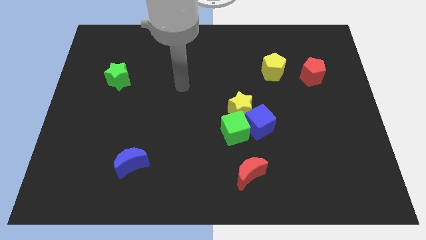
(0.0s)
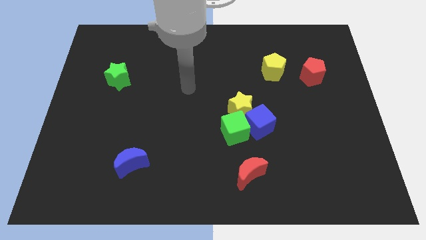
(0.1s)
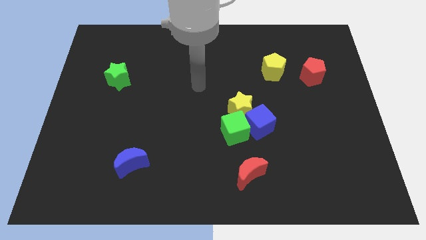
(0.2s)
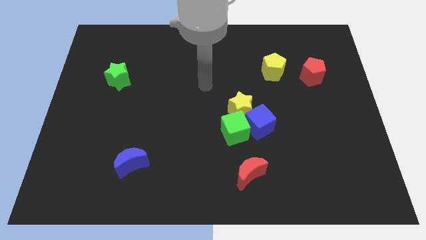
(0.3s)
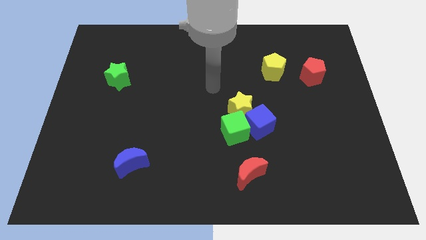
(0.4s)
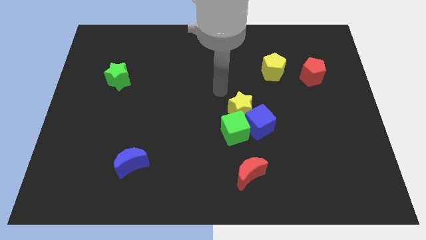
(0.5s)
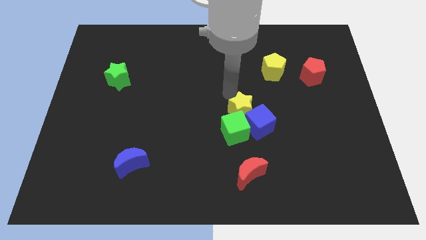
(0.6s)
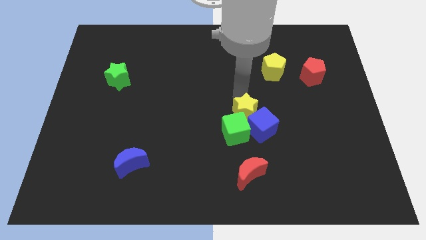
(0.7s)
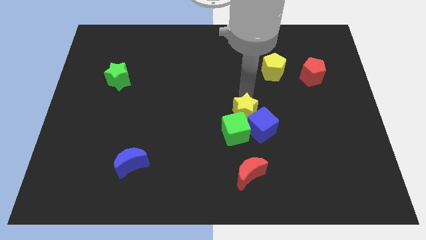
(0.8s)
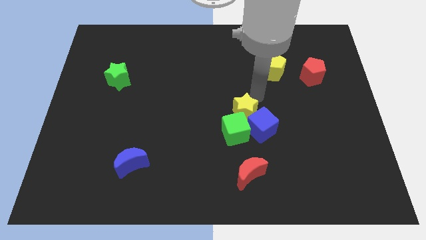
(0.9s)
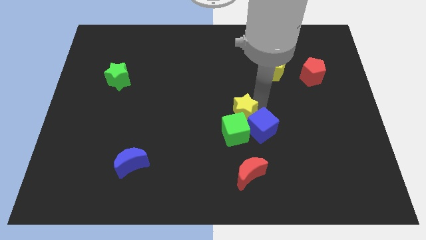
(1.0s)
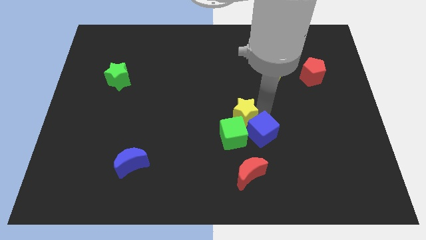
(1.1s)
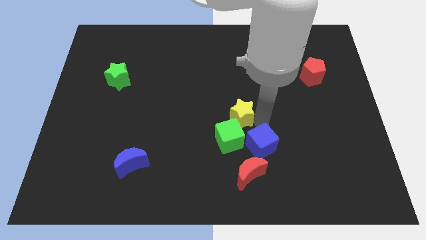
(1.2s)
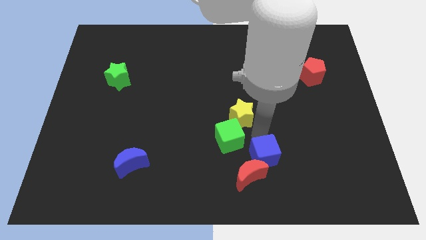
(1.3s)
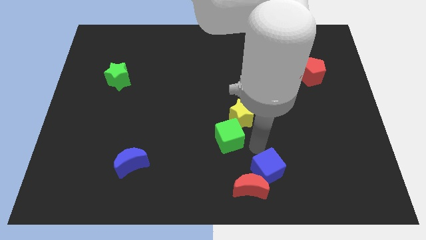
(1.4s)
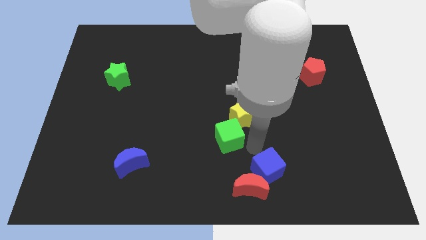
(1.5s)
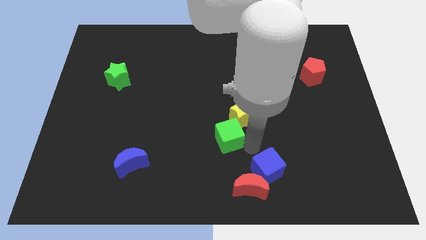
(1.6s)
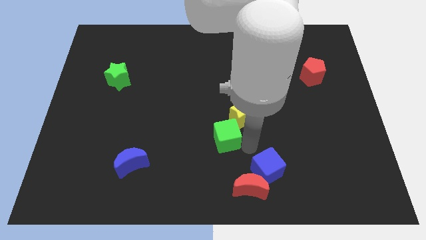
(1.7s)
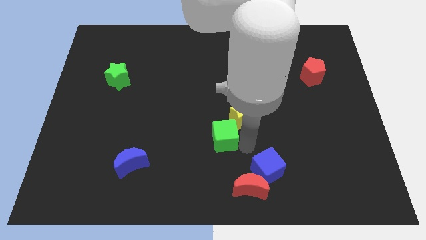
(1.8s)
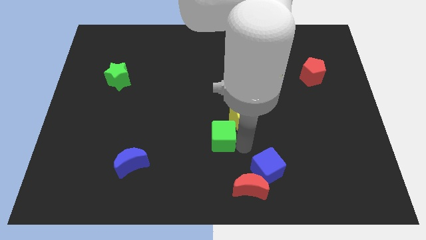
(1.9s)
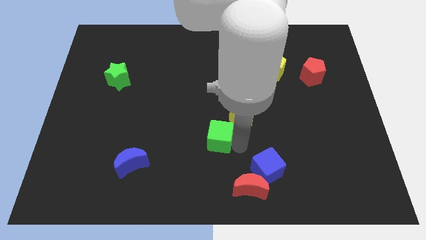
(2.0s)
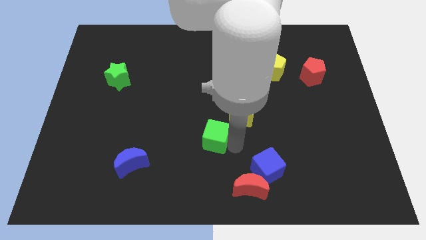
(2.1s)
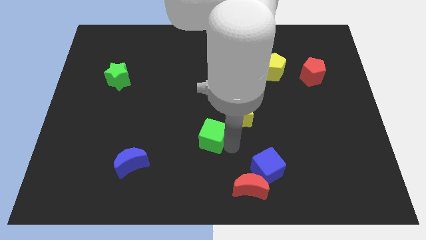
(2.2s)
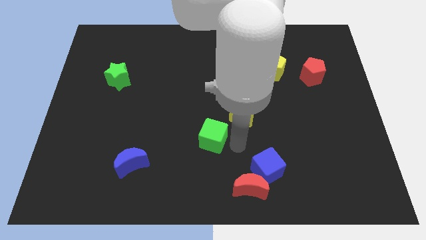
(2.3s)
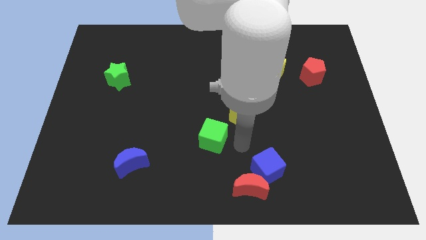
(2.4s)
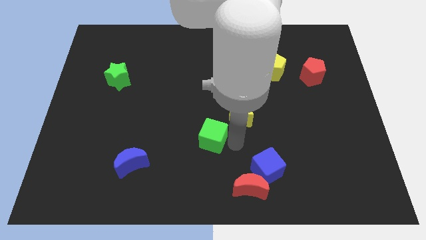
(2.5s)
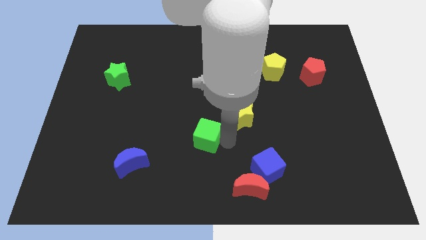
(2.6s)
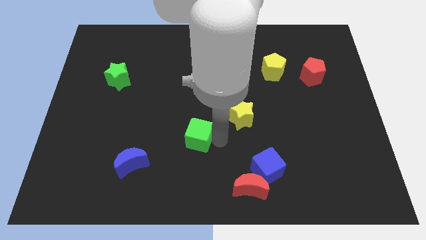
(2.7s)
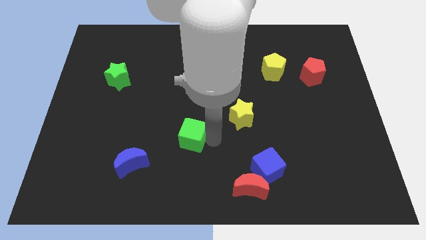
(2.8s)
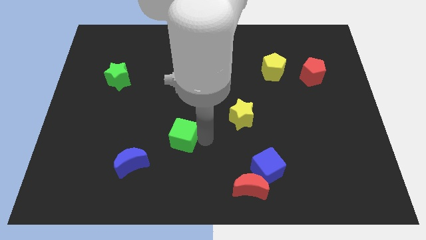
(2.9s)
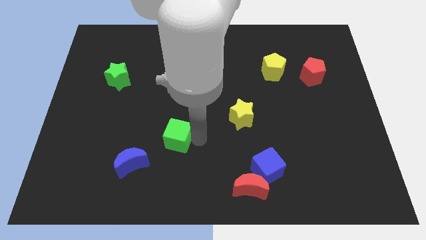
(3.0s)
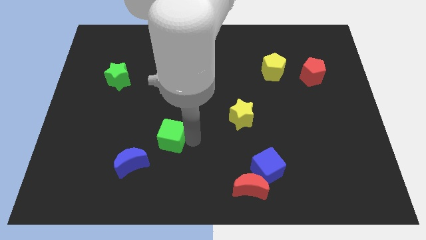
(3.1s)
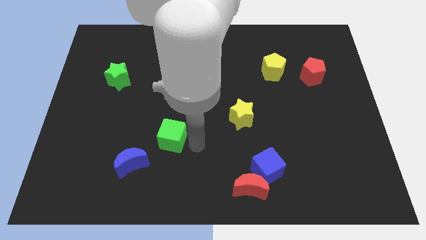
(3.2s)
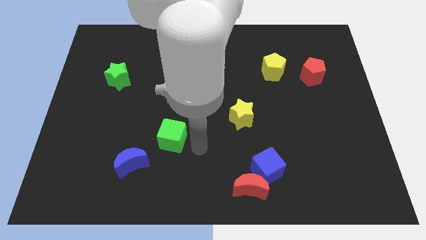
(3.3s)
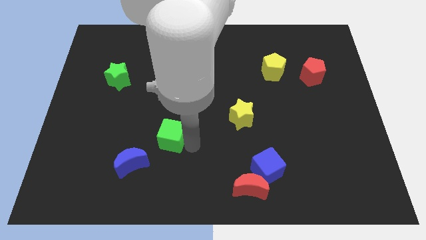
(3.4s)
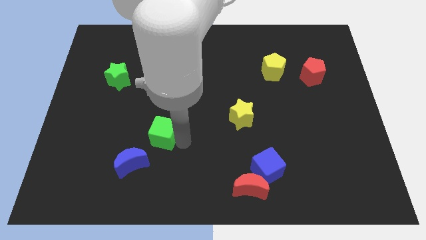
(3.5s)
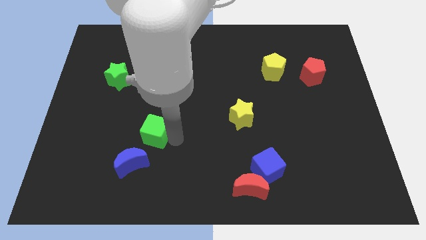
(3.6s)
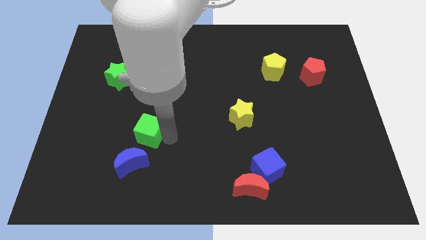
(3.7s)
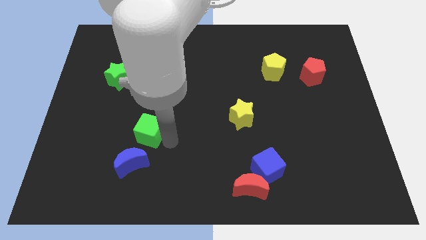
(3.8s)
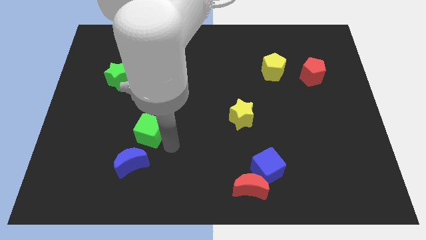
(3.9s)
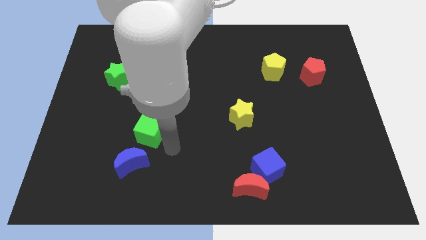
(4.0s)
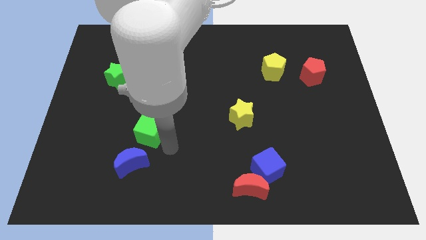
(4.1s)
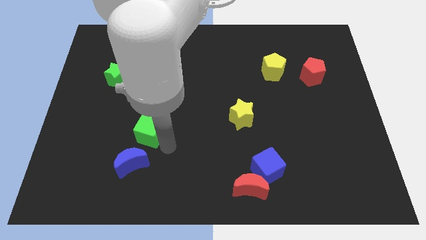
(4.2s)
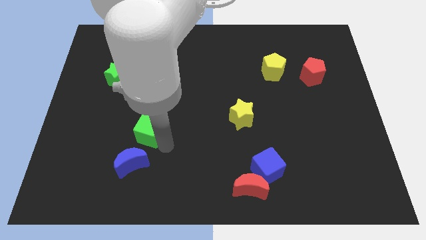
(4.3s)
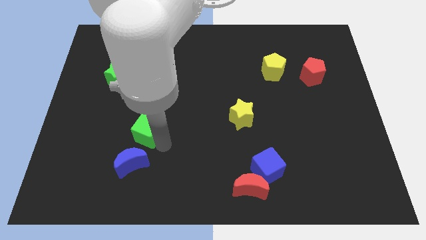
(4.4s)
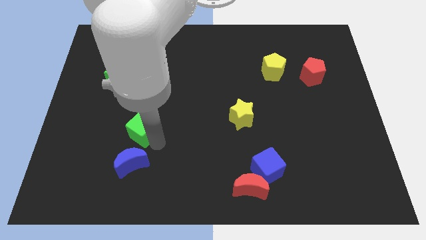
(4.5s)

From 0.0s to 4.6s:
move the green cube to the left

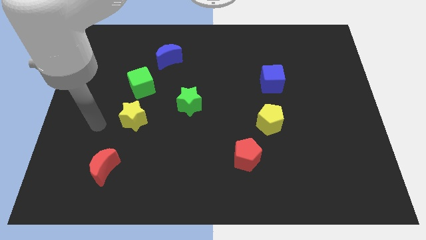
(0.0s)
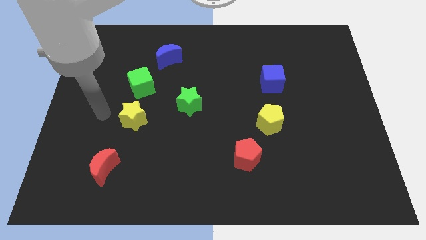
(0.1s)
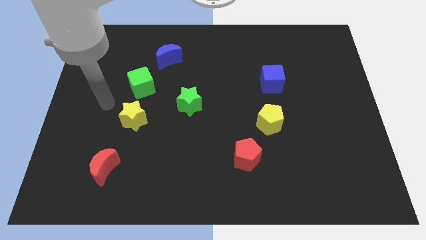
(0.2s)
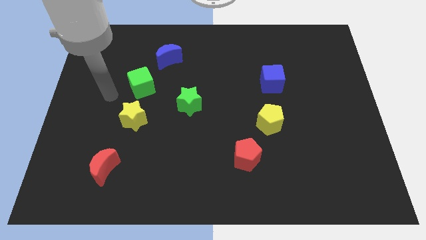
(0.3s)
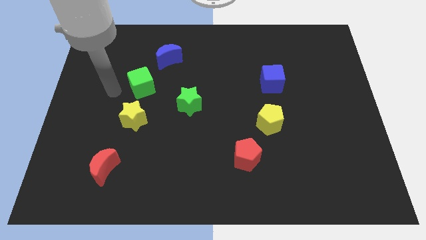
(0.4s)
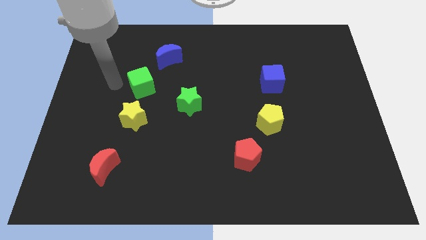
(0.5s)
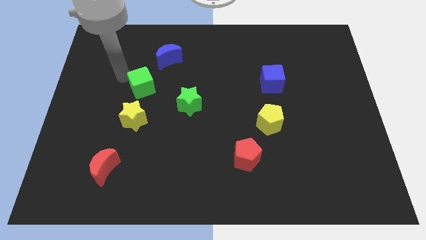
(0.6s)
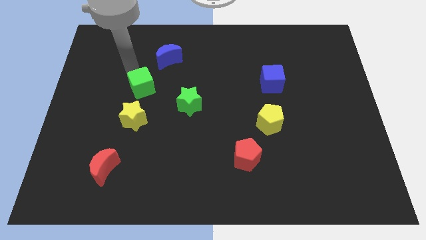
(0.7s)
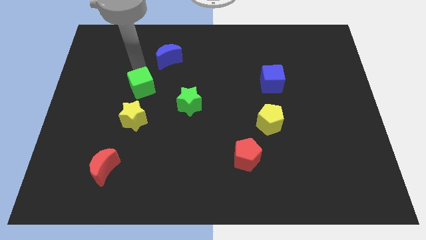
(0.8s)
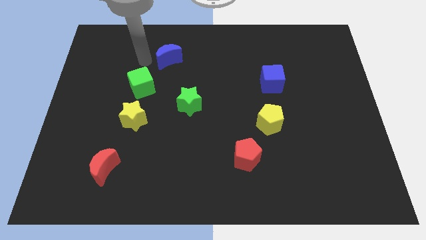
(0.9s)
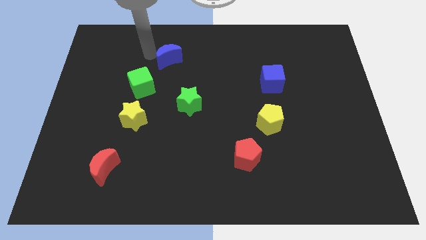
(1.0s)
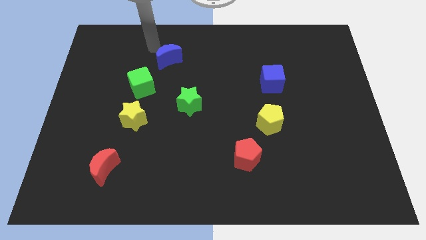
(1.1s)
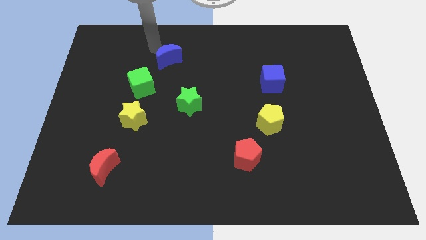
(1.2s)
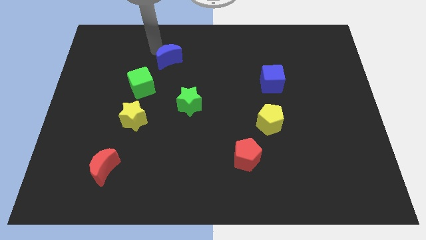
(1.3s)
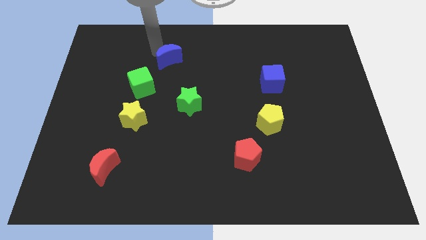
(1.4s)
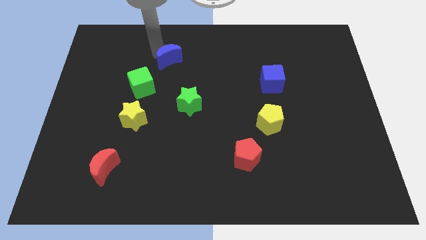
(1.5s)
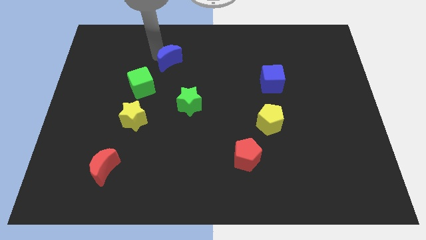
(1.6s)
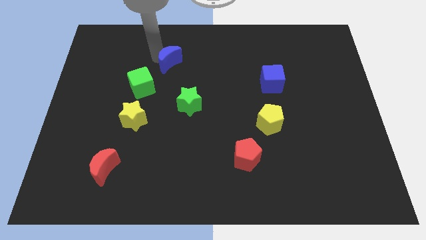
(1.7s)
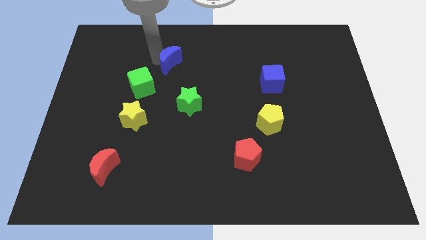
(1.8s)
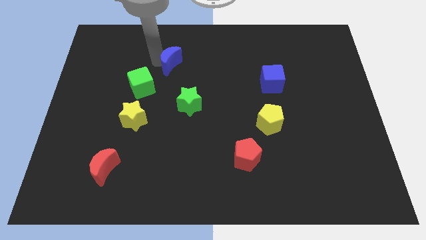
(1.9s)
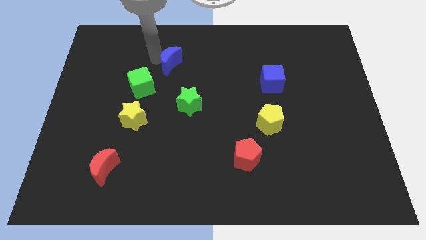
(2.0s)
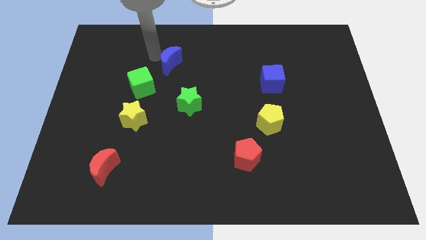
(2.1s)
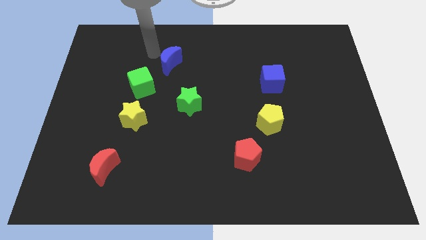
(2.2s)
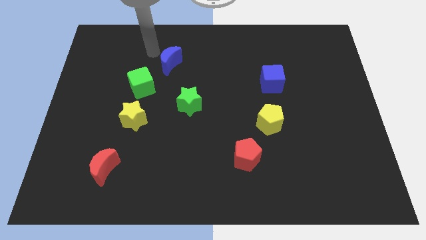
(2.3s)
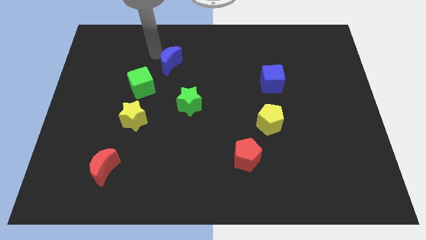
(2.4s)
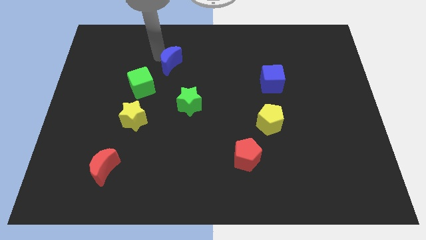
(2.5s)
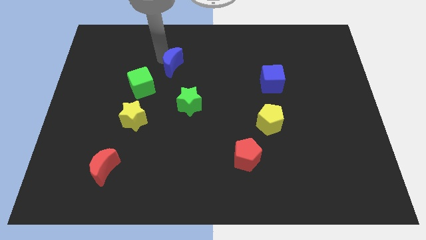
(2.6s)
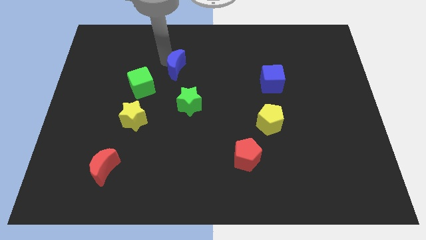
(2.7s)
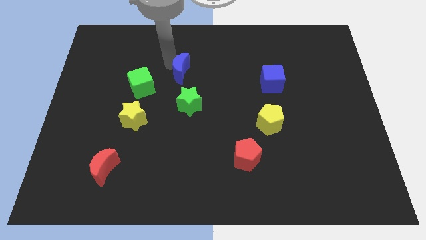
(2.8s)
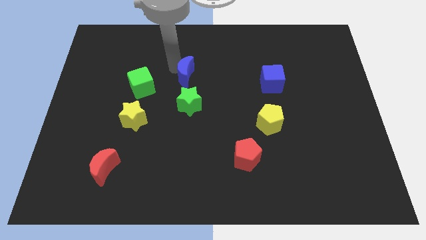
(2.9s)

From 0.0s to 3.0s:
move the blue moon downwards and then right a bit

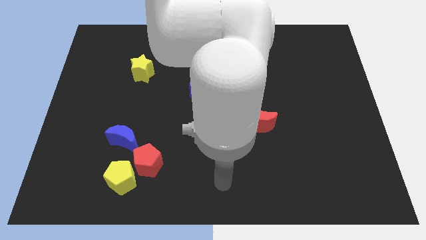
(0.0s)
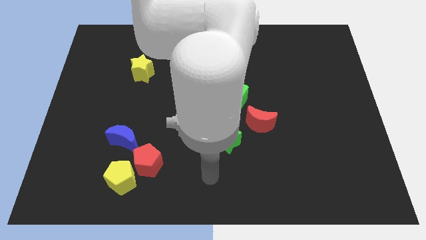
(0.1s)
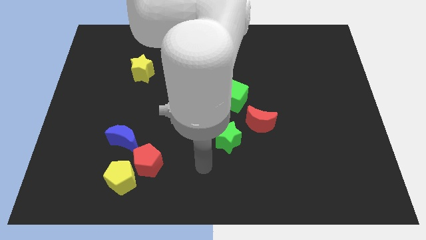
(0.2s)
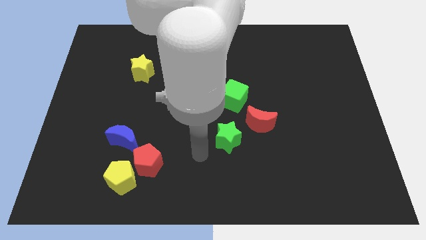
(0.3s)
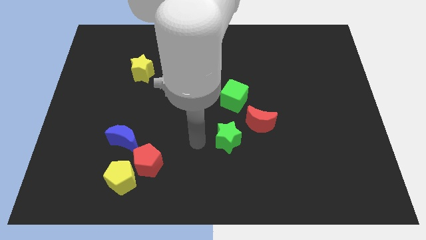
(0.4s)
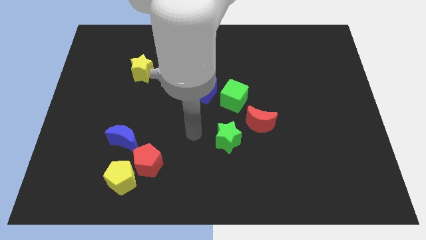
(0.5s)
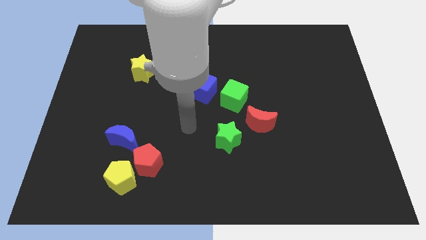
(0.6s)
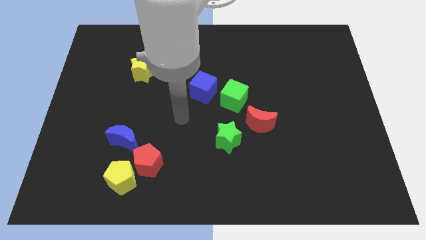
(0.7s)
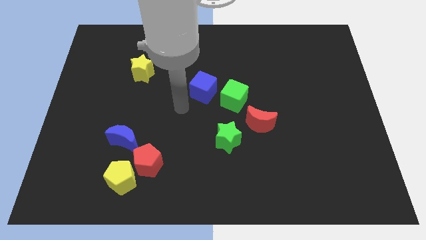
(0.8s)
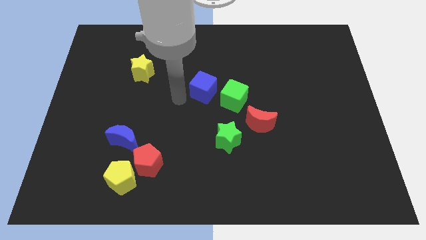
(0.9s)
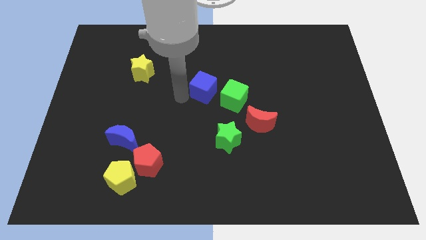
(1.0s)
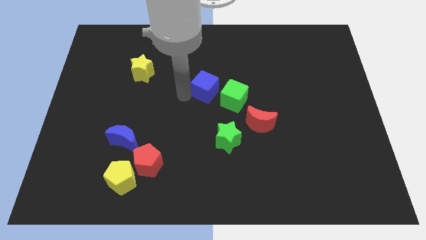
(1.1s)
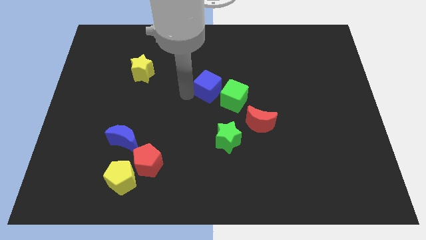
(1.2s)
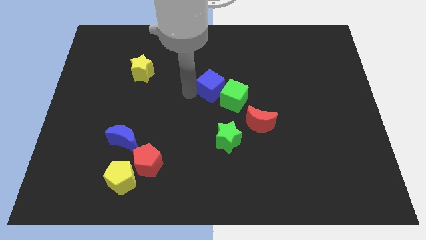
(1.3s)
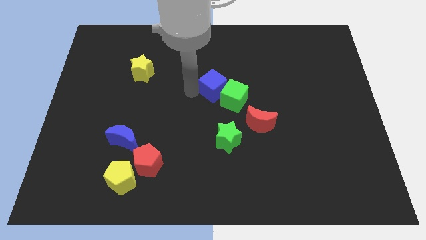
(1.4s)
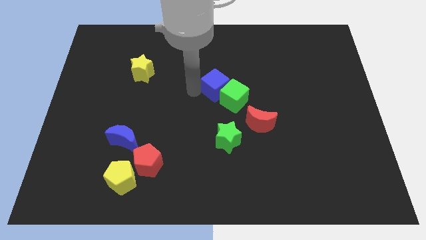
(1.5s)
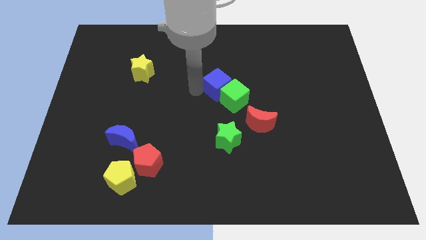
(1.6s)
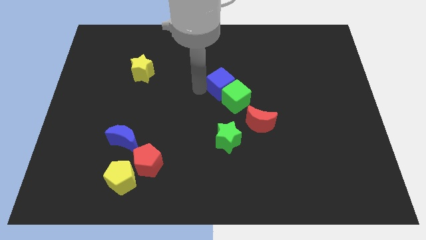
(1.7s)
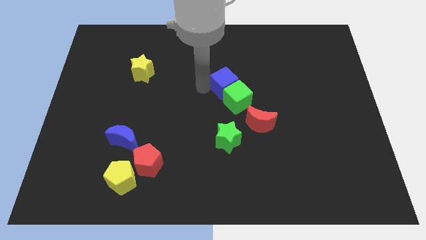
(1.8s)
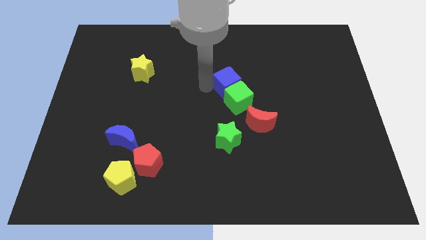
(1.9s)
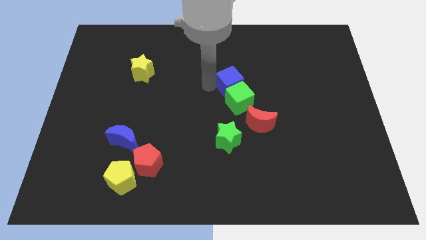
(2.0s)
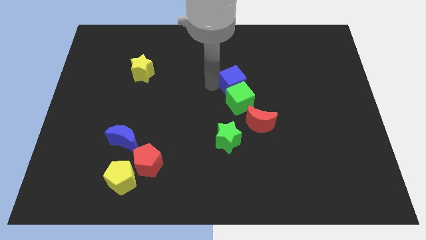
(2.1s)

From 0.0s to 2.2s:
move the blue cube to the right a little bit
